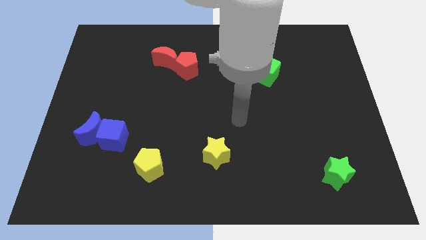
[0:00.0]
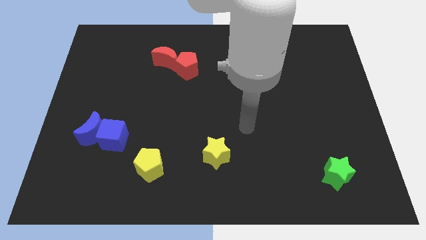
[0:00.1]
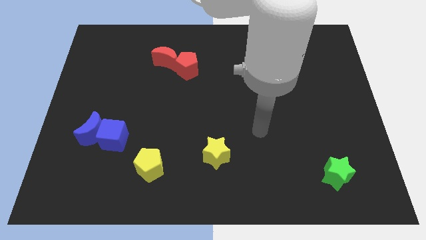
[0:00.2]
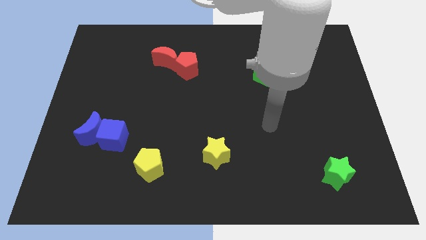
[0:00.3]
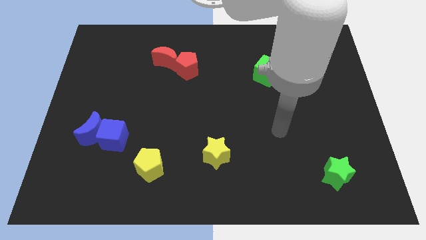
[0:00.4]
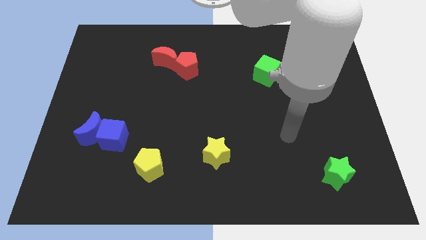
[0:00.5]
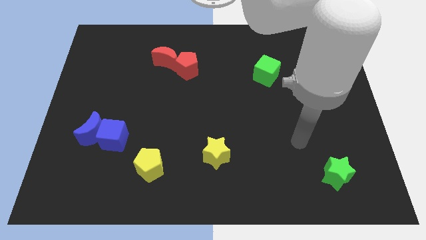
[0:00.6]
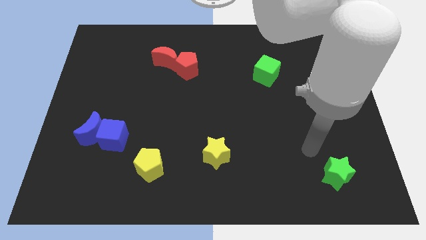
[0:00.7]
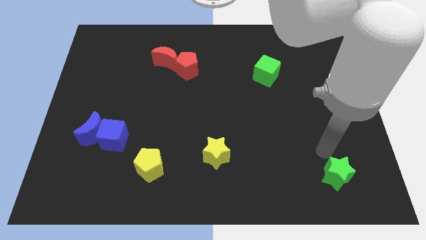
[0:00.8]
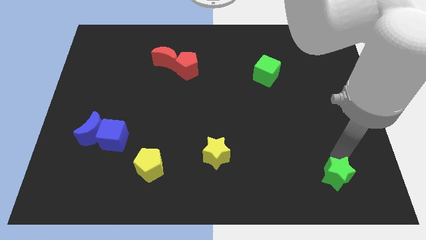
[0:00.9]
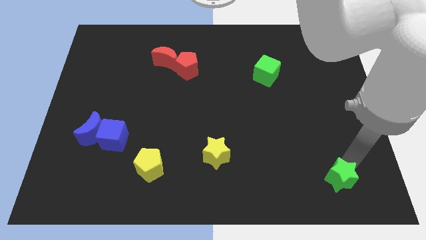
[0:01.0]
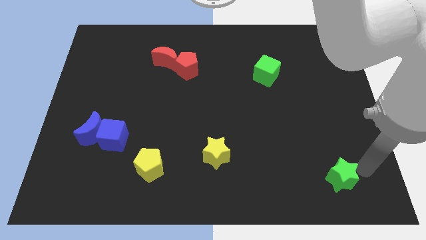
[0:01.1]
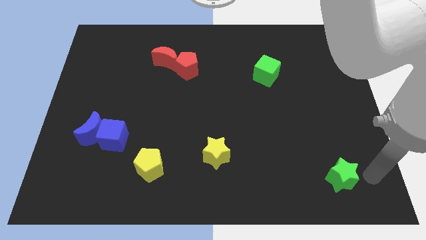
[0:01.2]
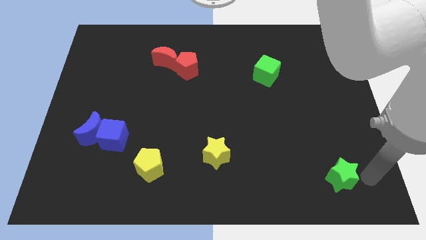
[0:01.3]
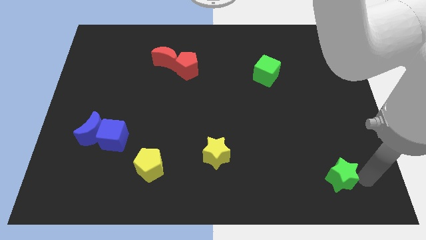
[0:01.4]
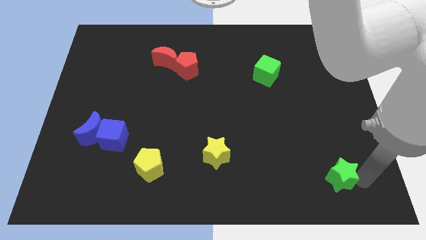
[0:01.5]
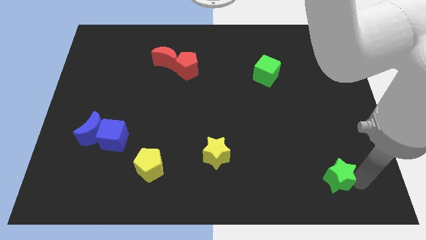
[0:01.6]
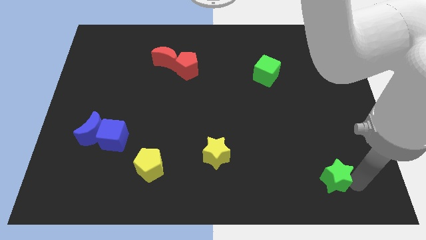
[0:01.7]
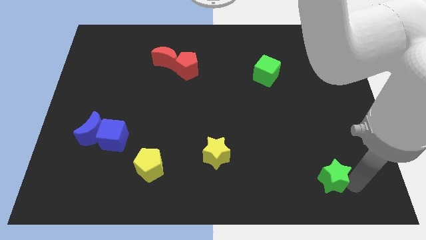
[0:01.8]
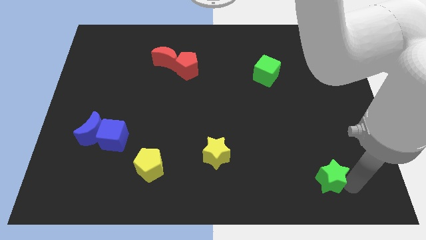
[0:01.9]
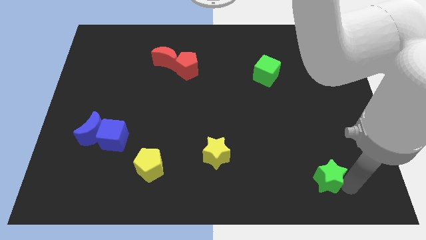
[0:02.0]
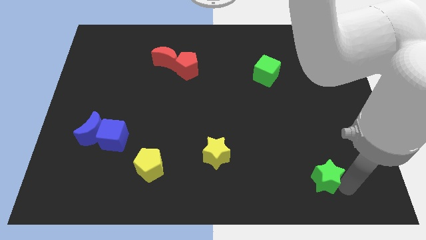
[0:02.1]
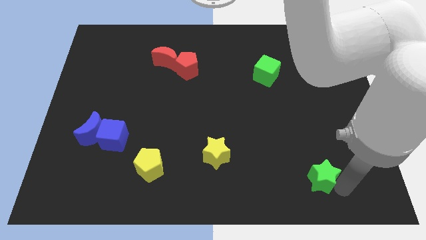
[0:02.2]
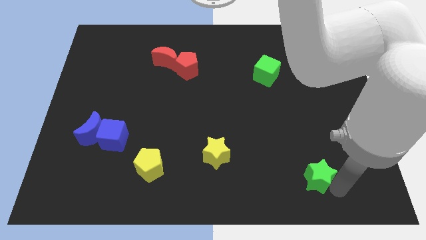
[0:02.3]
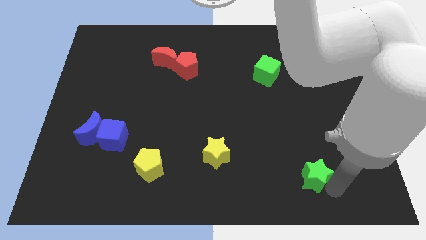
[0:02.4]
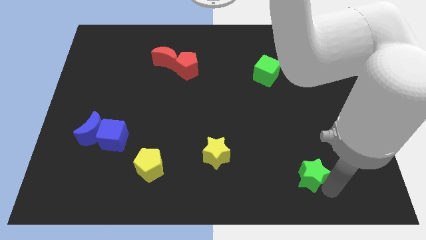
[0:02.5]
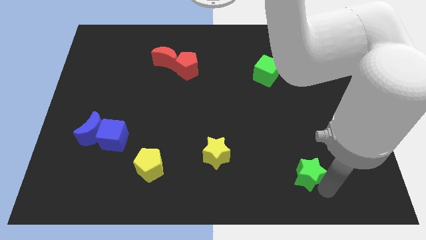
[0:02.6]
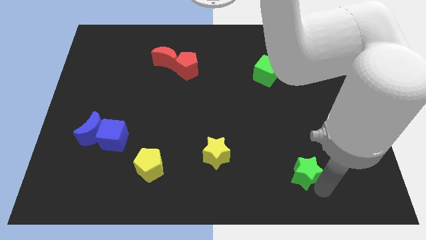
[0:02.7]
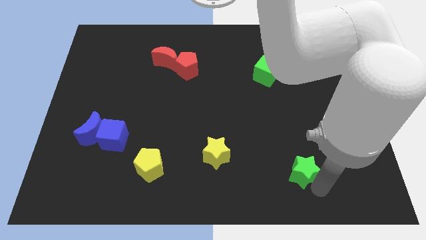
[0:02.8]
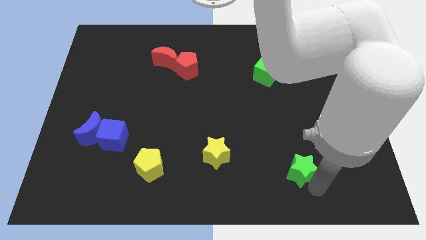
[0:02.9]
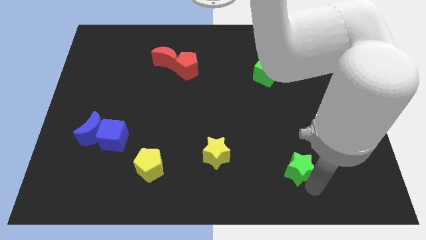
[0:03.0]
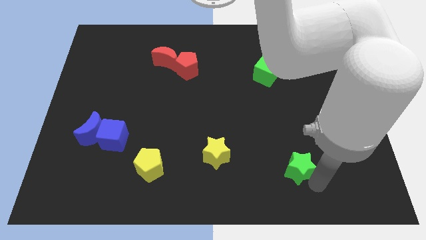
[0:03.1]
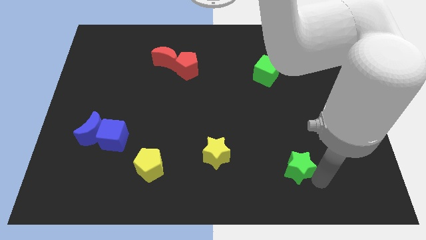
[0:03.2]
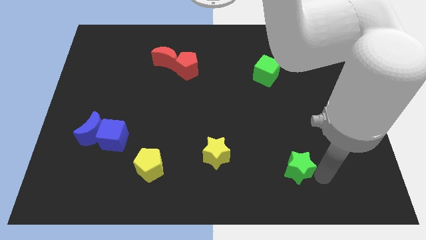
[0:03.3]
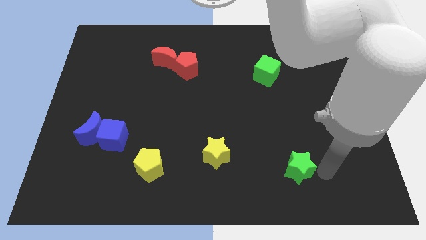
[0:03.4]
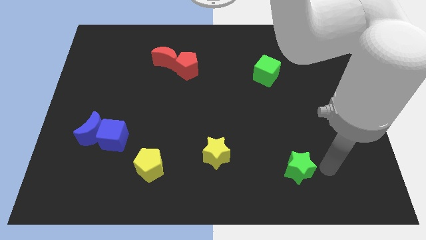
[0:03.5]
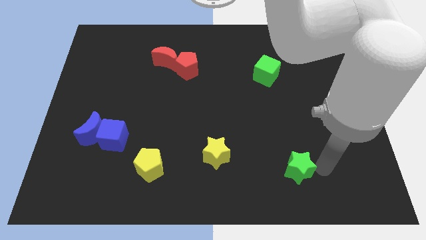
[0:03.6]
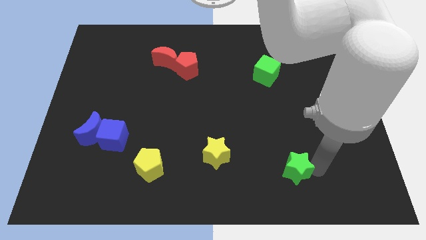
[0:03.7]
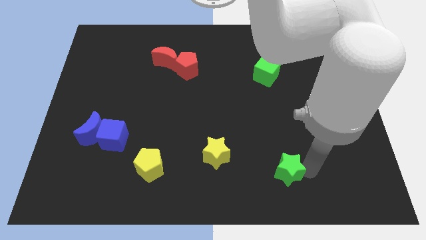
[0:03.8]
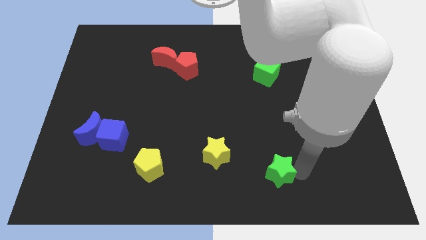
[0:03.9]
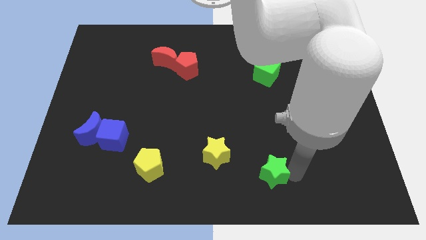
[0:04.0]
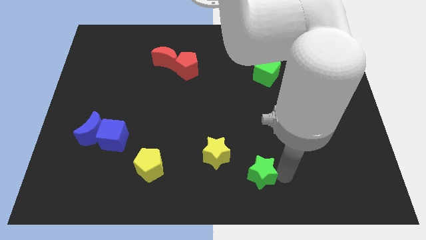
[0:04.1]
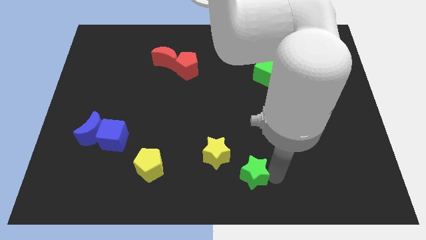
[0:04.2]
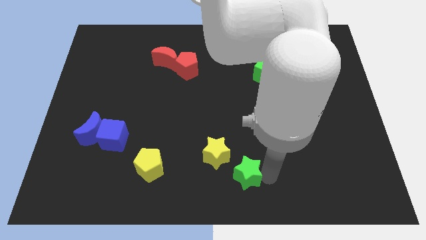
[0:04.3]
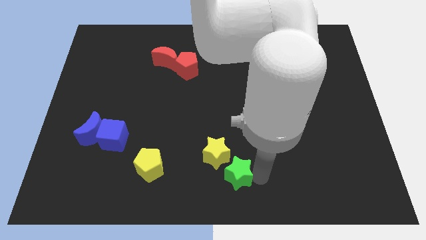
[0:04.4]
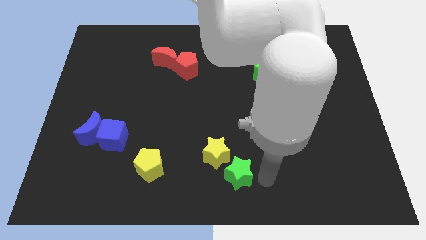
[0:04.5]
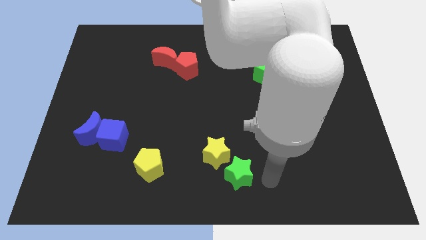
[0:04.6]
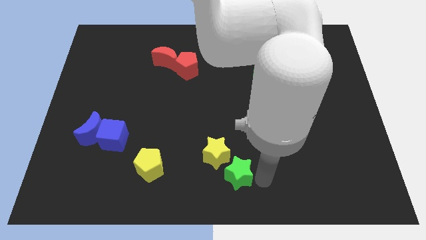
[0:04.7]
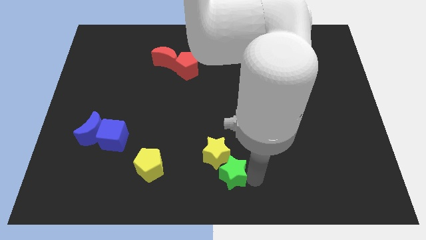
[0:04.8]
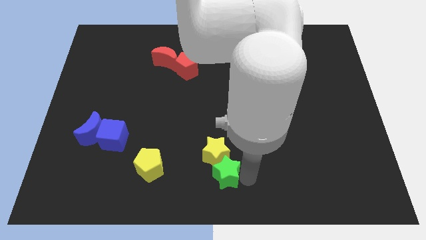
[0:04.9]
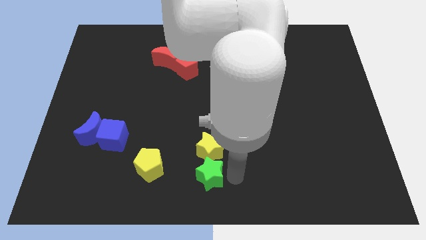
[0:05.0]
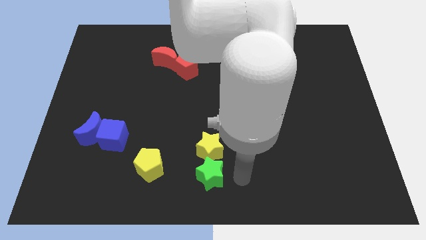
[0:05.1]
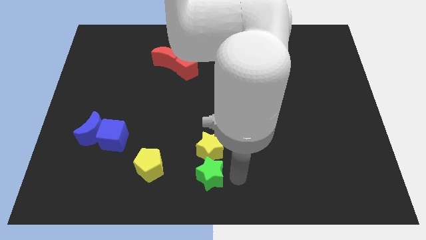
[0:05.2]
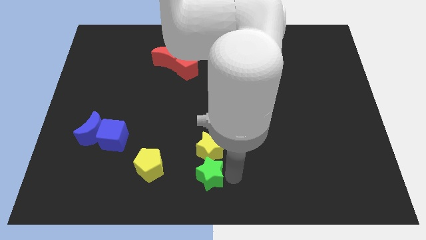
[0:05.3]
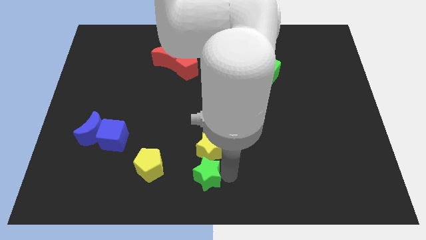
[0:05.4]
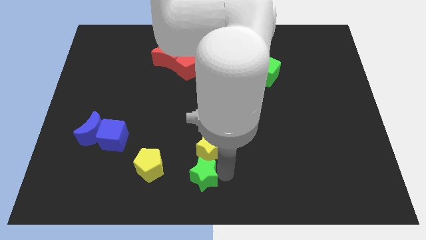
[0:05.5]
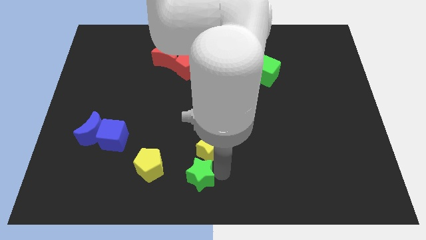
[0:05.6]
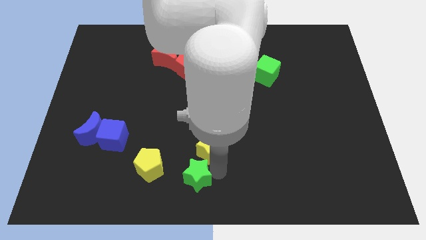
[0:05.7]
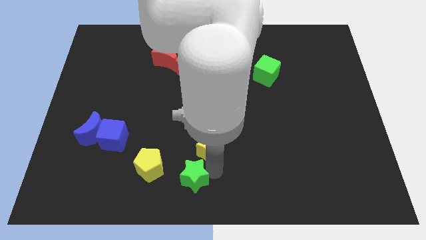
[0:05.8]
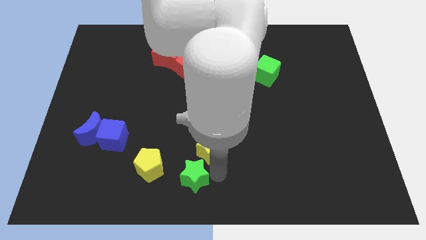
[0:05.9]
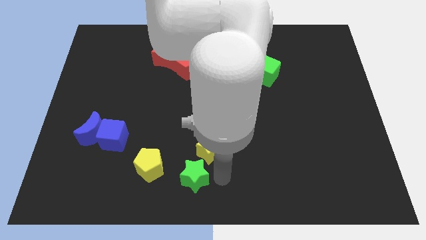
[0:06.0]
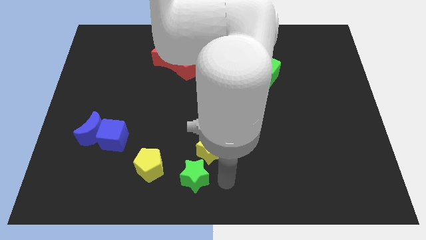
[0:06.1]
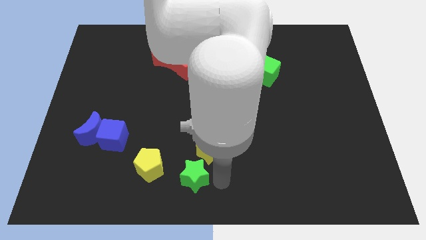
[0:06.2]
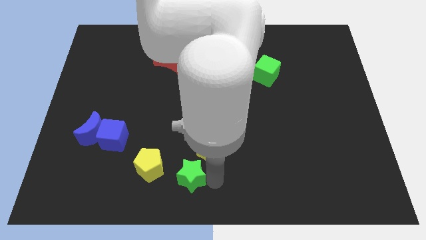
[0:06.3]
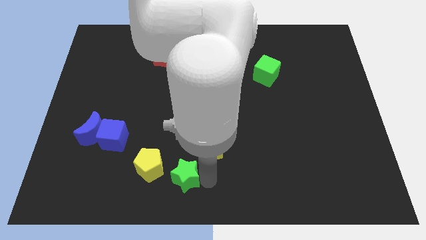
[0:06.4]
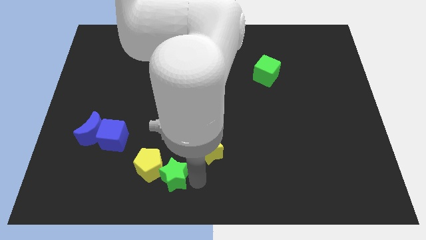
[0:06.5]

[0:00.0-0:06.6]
move the green star towards the yellow pentagon
